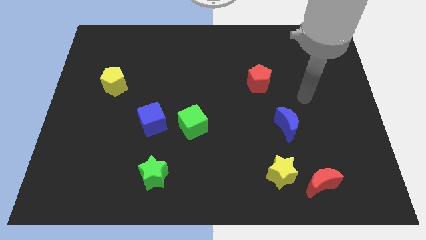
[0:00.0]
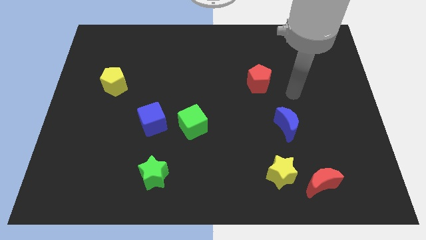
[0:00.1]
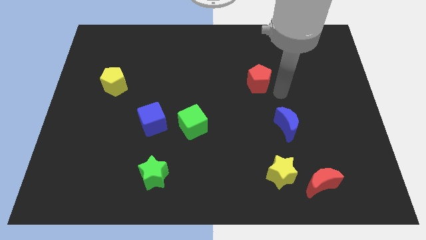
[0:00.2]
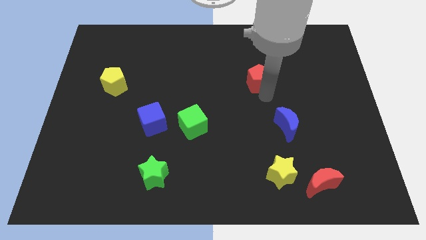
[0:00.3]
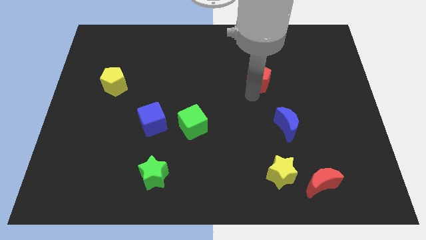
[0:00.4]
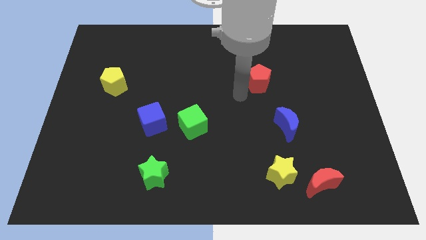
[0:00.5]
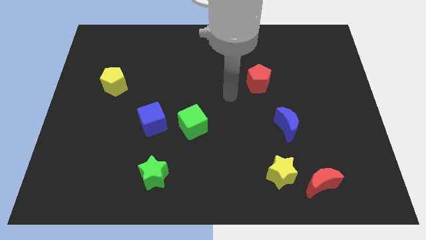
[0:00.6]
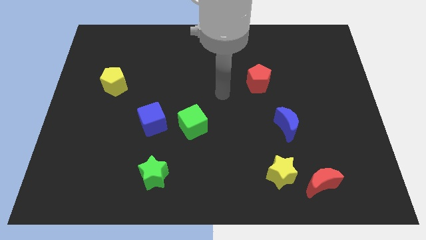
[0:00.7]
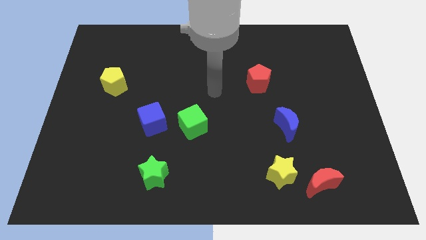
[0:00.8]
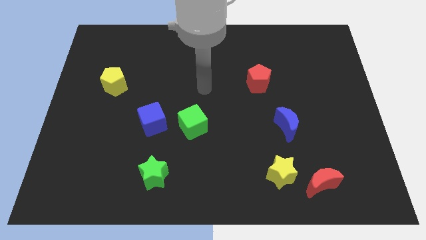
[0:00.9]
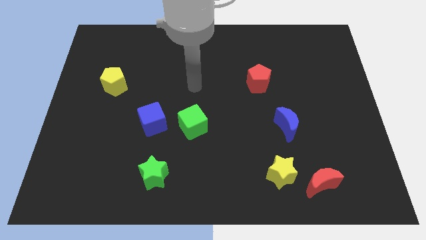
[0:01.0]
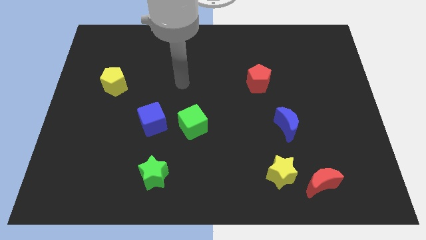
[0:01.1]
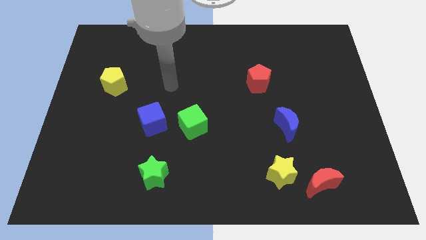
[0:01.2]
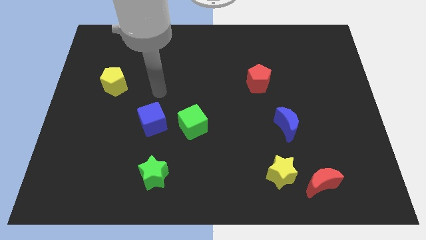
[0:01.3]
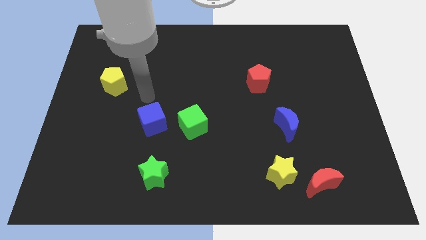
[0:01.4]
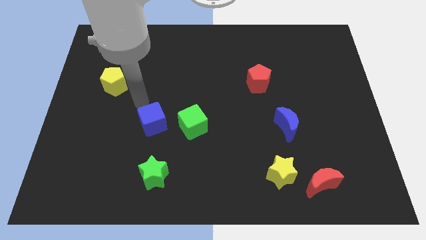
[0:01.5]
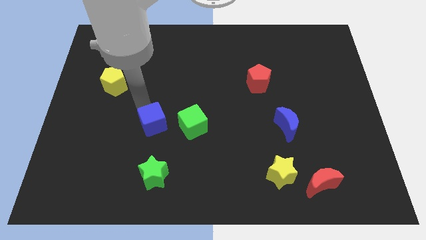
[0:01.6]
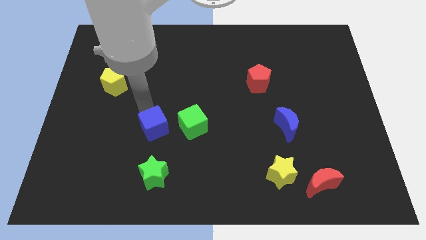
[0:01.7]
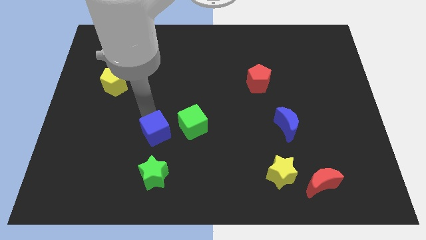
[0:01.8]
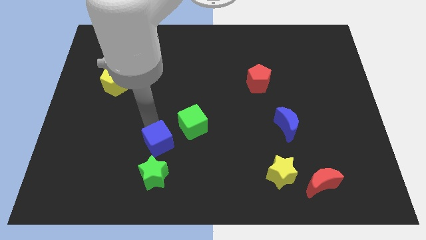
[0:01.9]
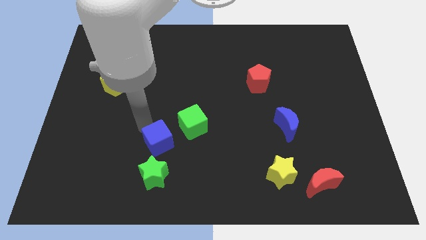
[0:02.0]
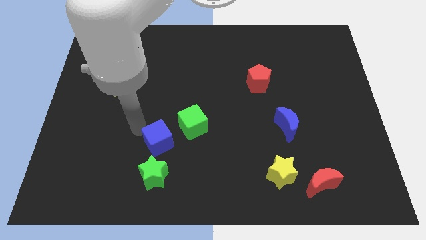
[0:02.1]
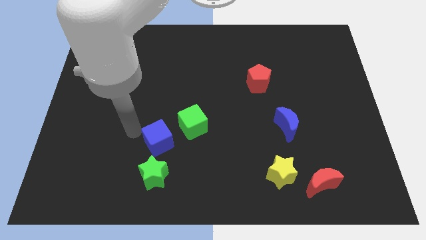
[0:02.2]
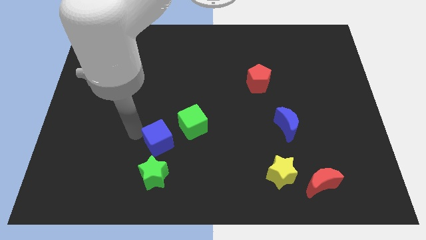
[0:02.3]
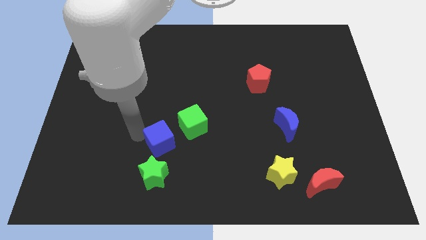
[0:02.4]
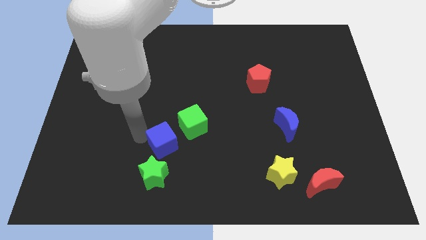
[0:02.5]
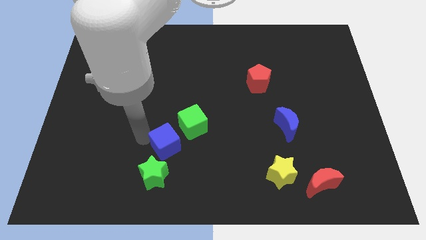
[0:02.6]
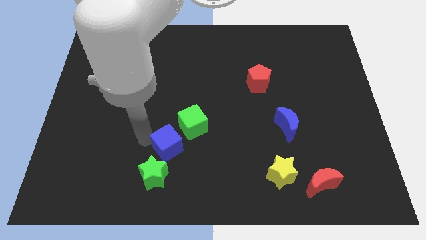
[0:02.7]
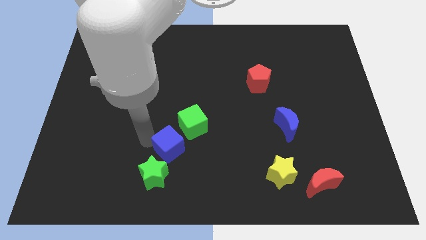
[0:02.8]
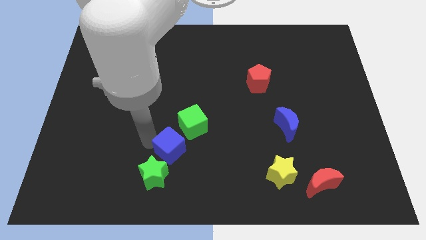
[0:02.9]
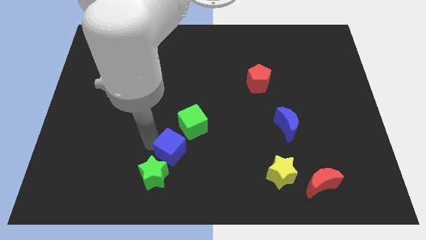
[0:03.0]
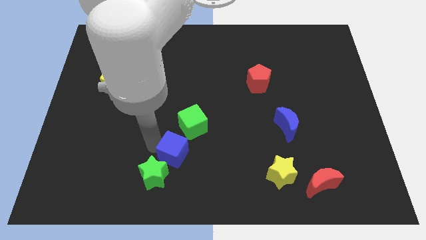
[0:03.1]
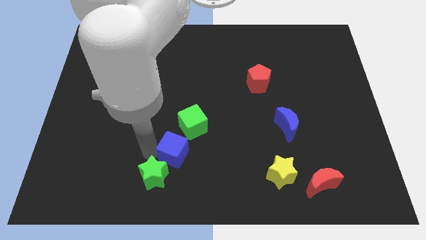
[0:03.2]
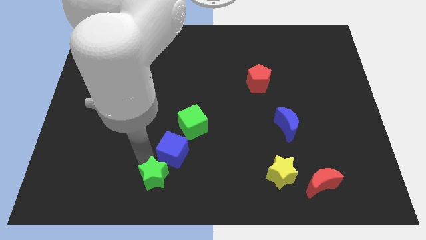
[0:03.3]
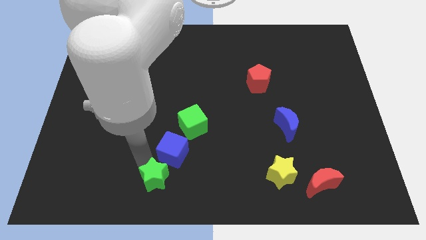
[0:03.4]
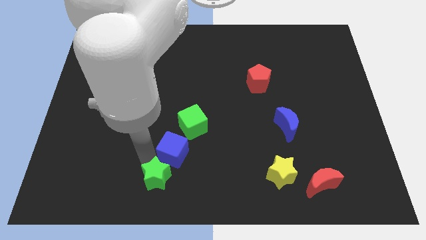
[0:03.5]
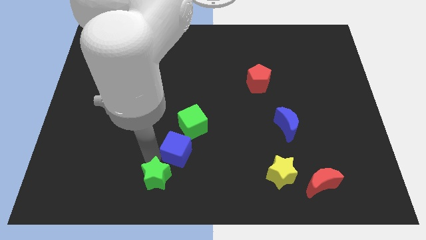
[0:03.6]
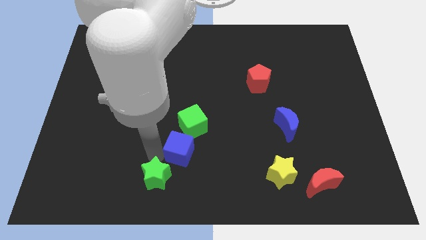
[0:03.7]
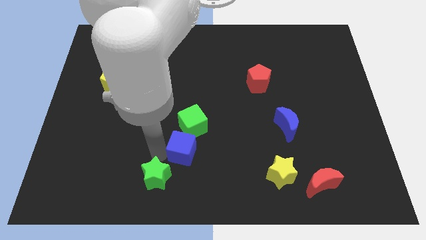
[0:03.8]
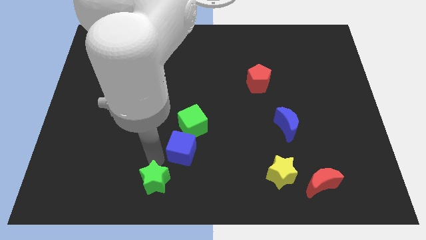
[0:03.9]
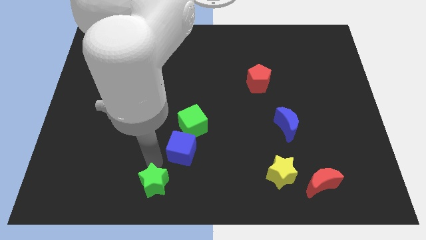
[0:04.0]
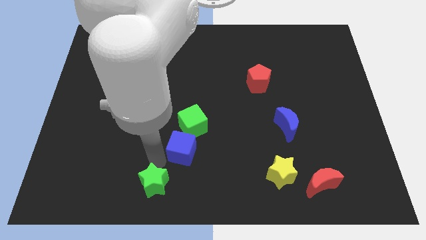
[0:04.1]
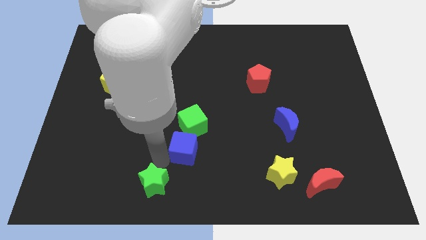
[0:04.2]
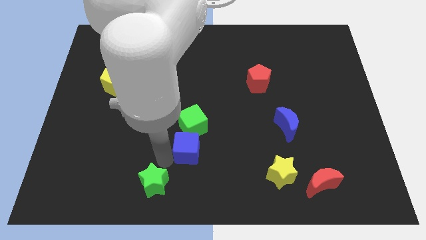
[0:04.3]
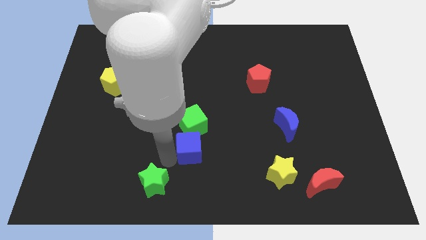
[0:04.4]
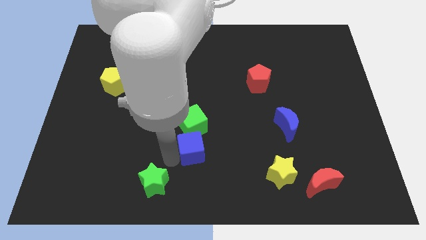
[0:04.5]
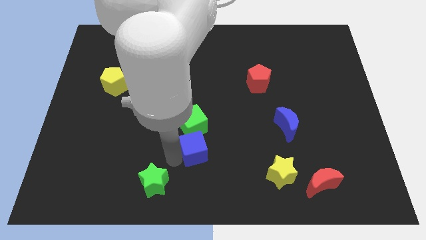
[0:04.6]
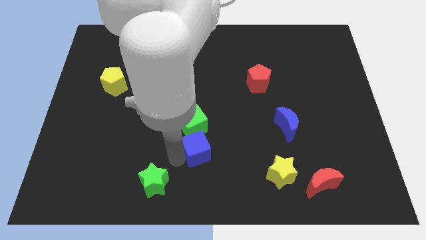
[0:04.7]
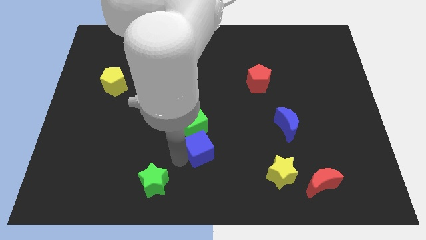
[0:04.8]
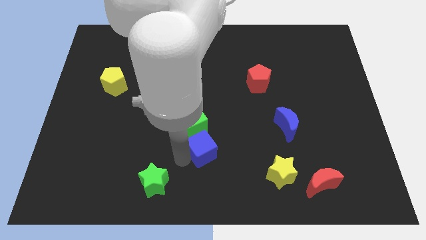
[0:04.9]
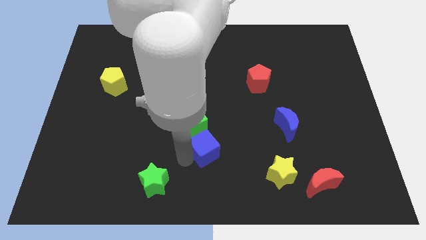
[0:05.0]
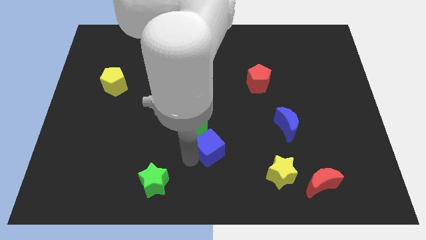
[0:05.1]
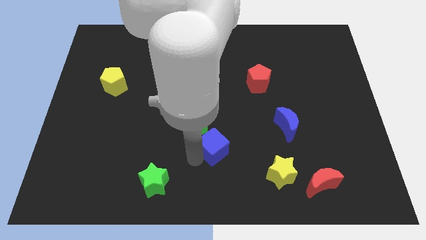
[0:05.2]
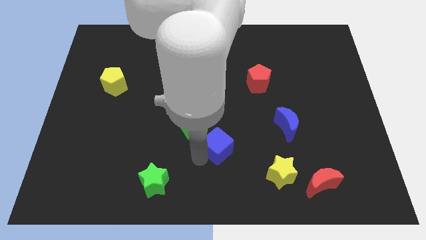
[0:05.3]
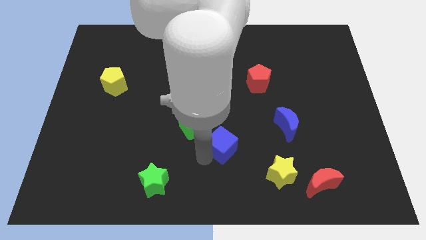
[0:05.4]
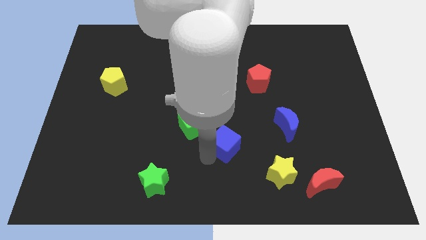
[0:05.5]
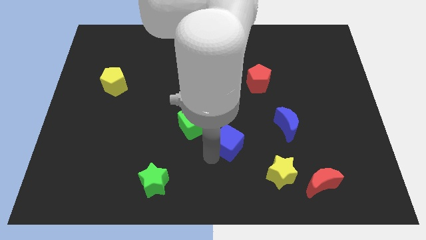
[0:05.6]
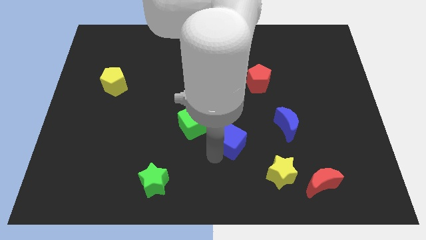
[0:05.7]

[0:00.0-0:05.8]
move the blue cube to the right of the green cube
